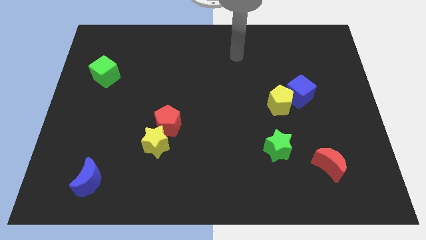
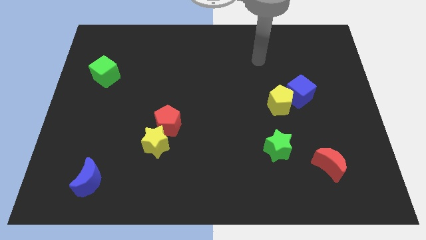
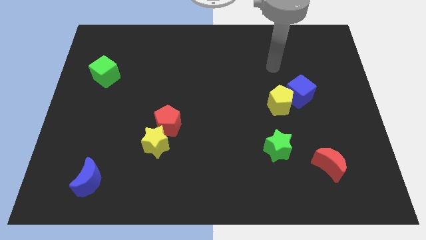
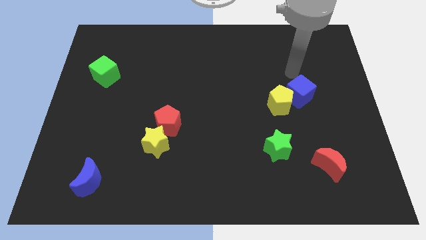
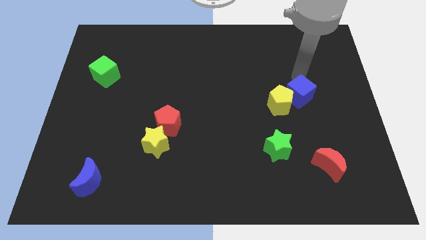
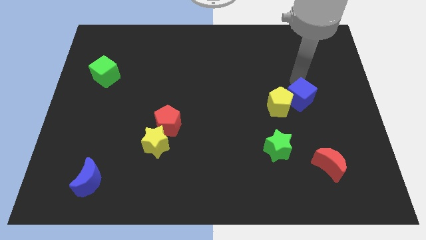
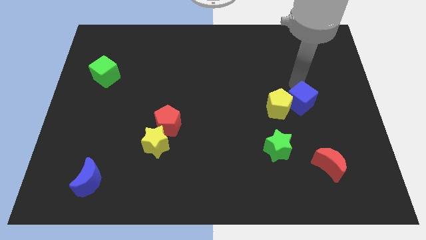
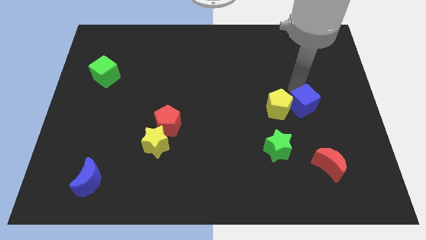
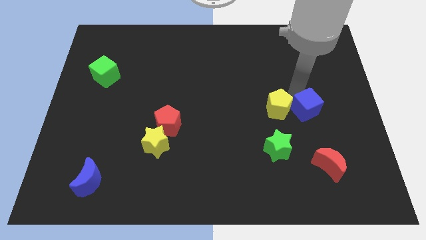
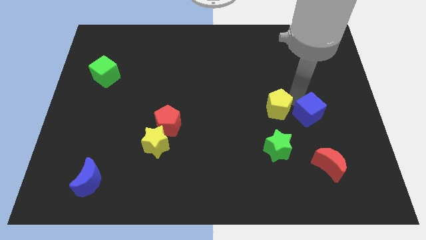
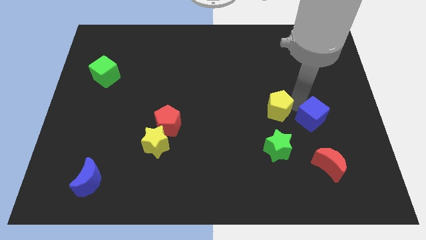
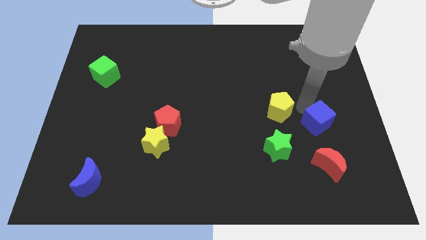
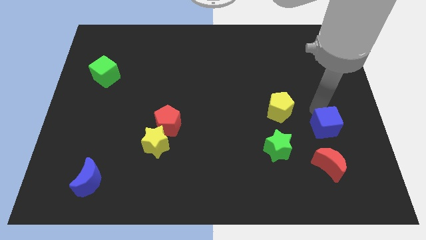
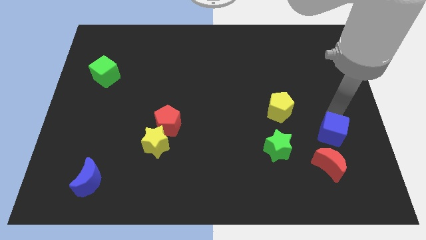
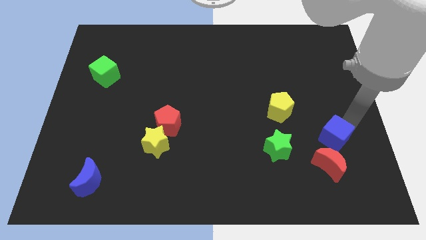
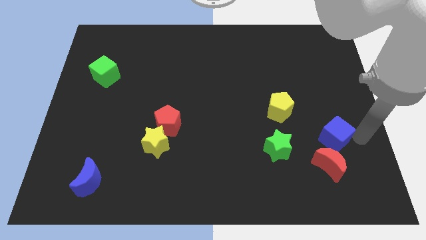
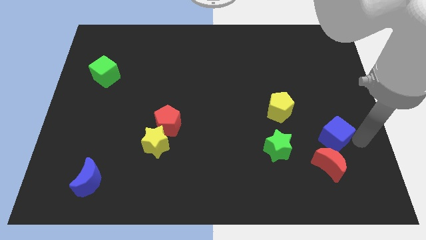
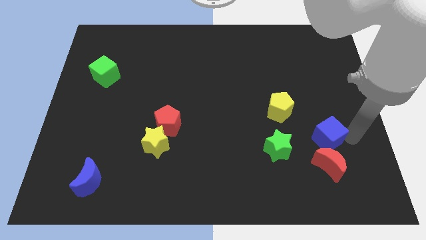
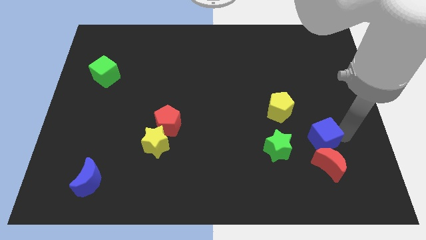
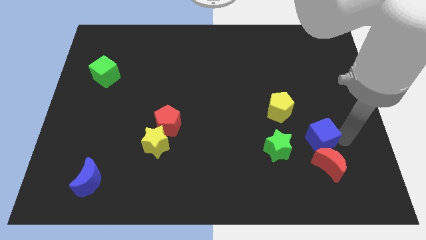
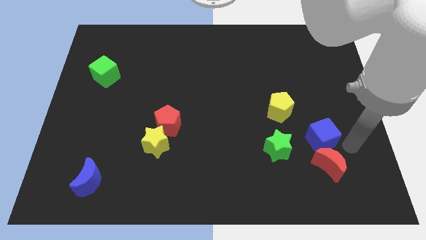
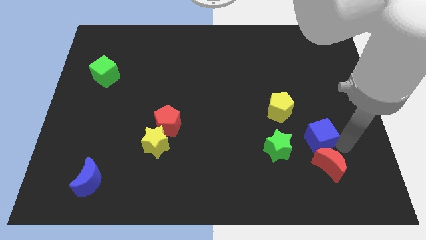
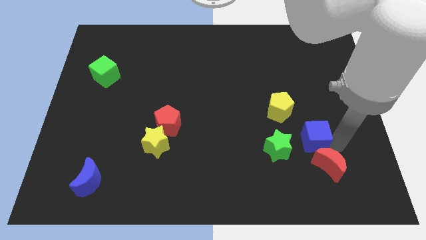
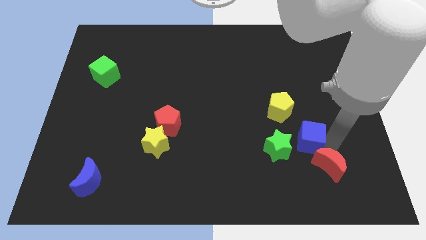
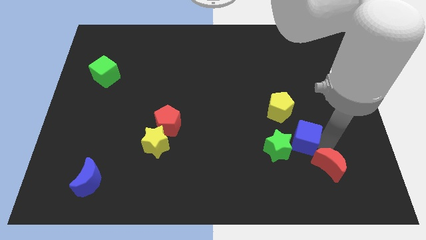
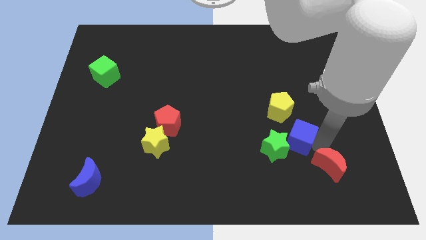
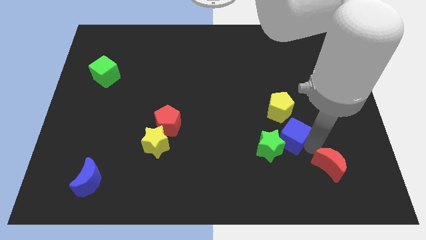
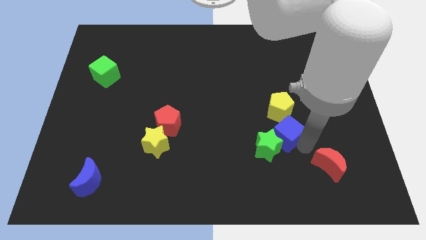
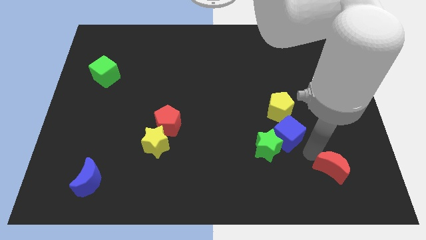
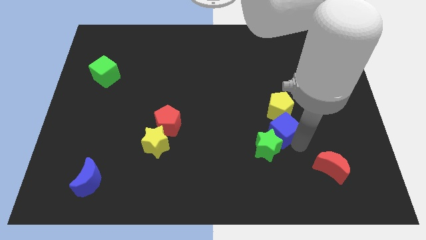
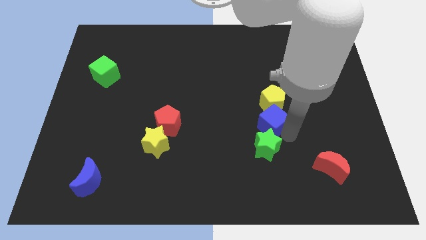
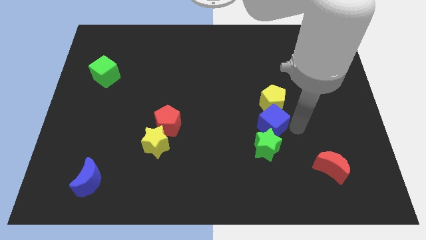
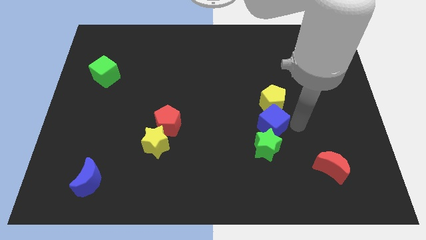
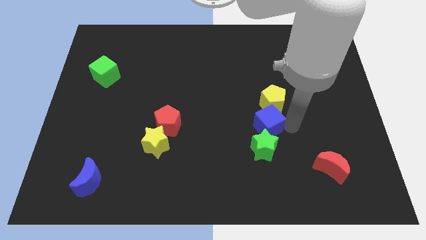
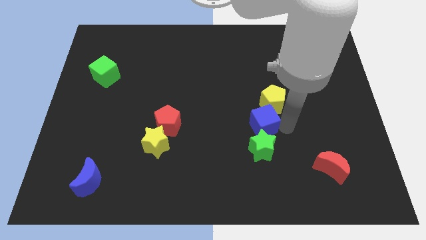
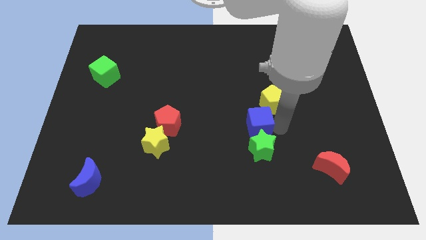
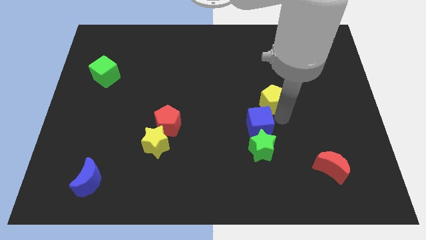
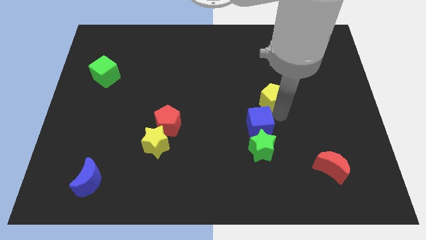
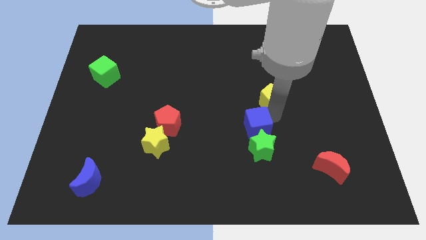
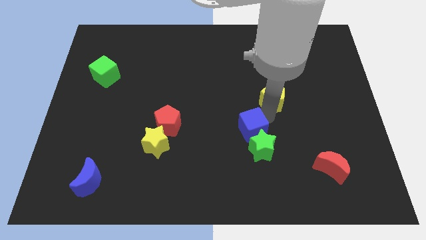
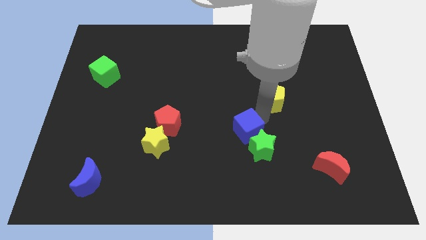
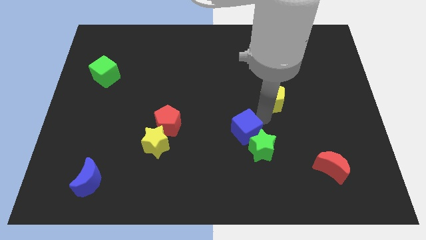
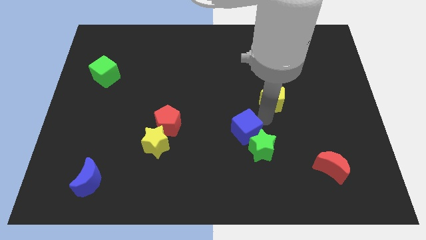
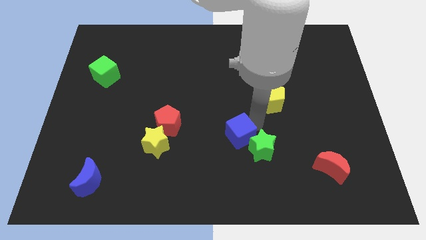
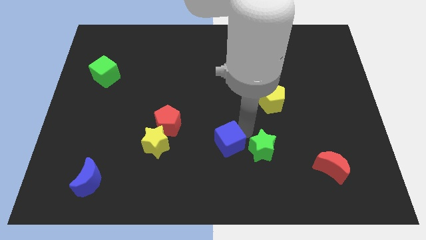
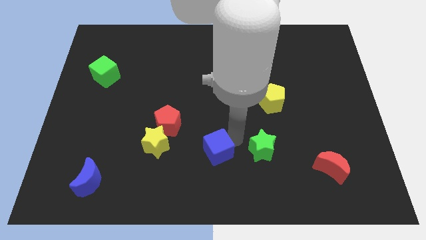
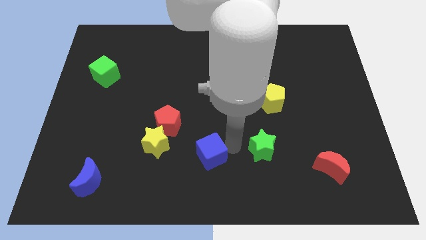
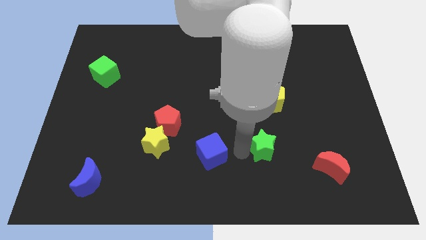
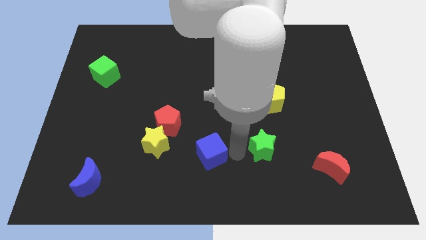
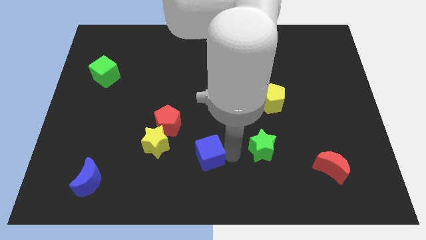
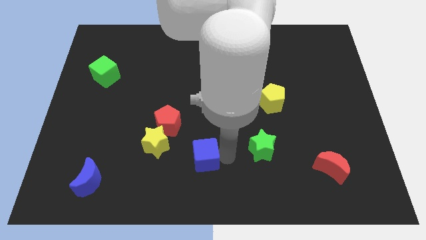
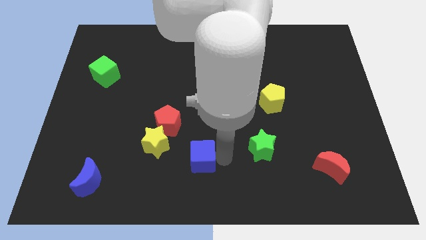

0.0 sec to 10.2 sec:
put the blue cube to the bottom right side of the yellow star

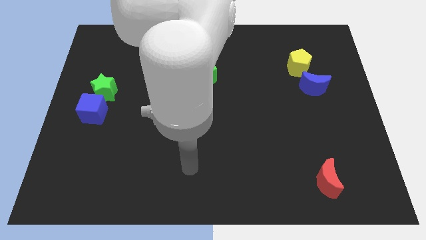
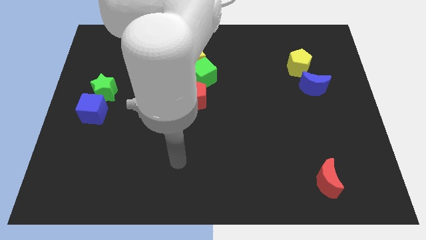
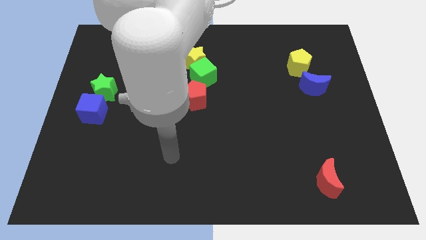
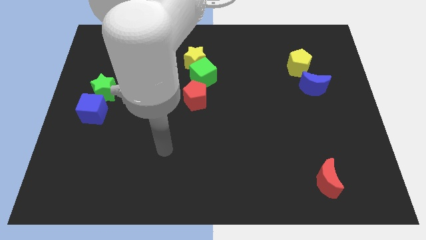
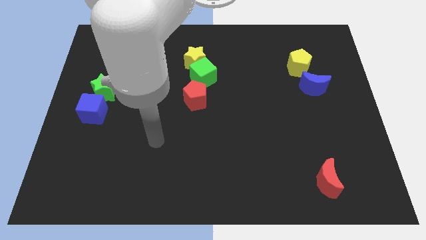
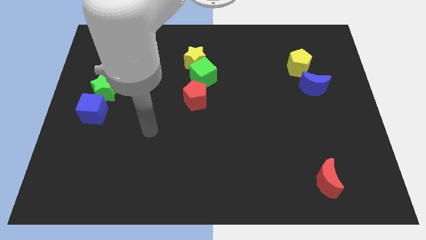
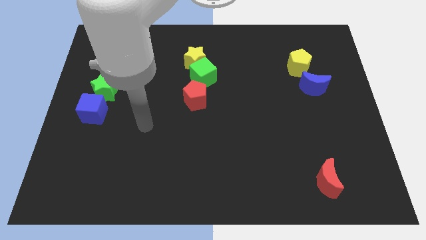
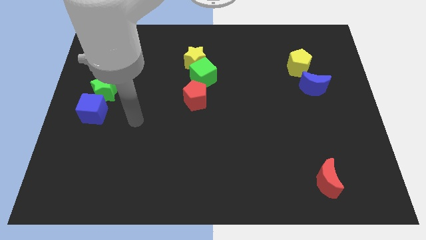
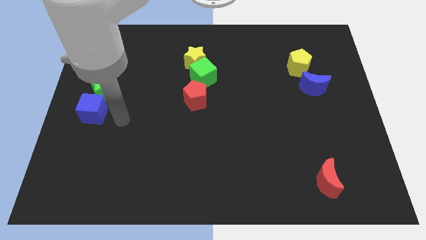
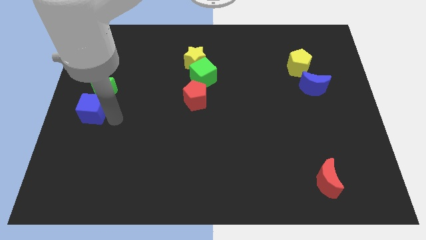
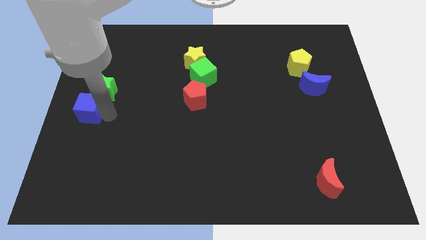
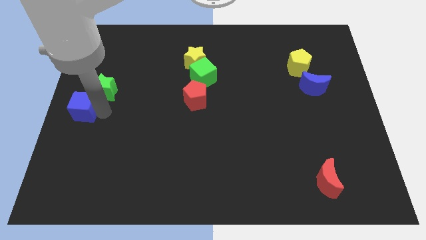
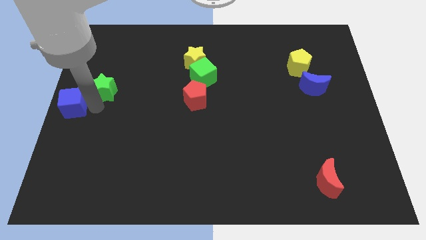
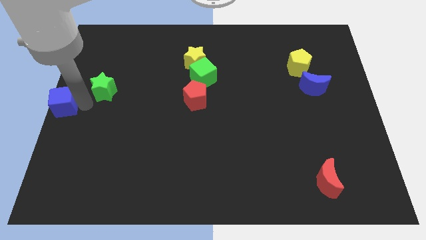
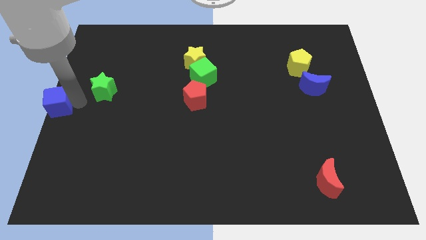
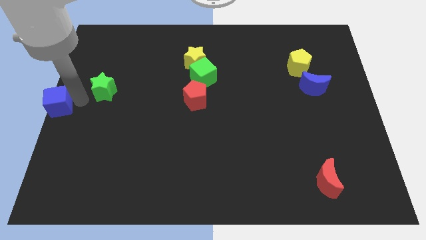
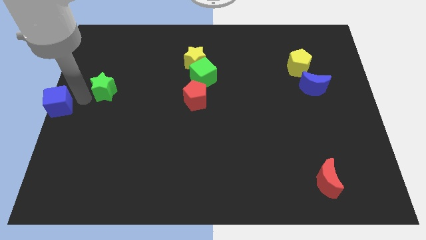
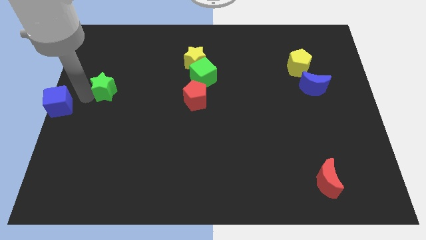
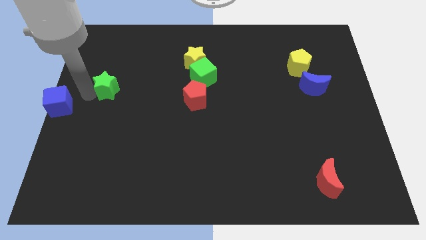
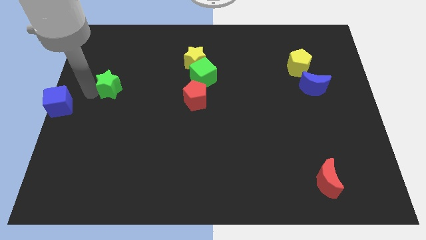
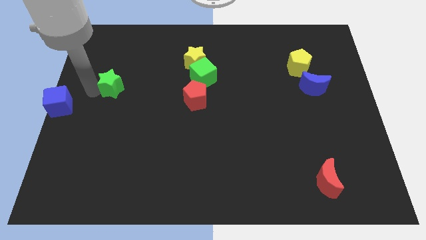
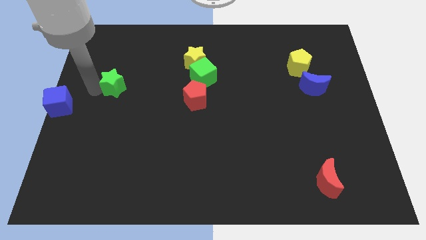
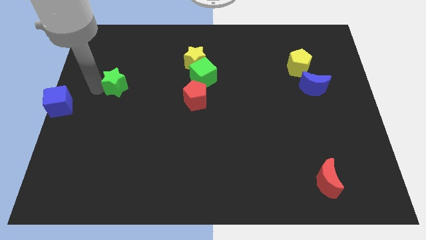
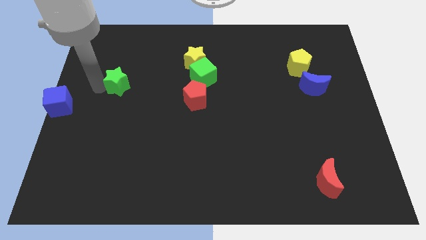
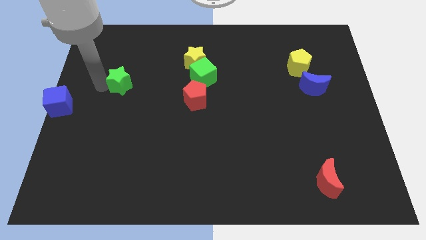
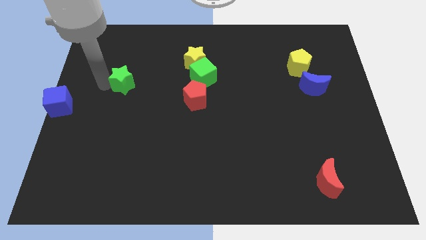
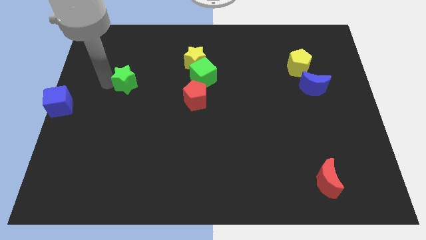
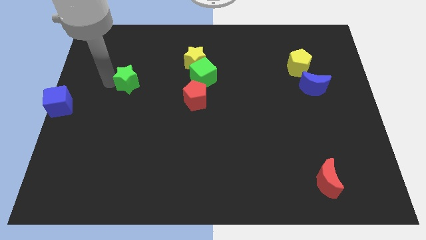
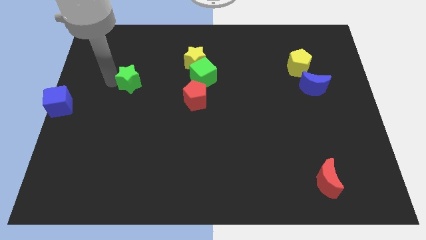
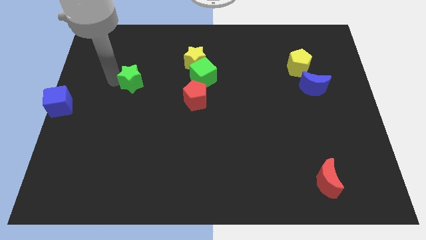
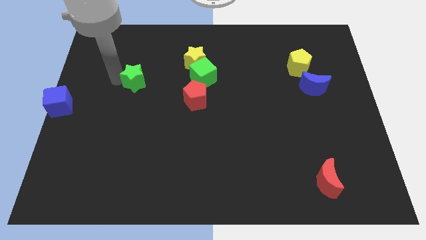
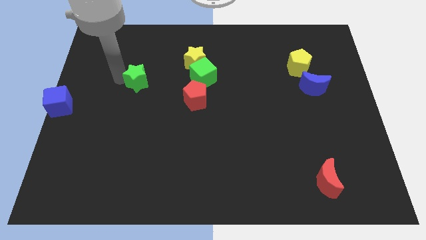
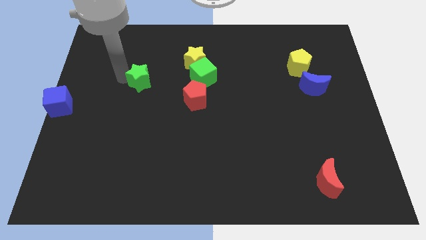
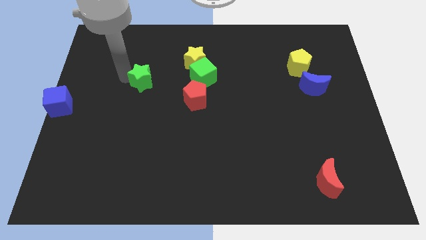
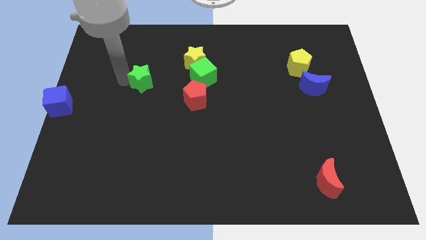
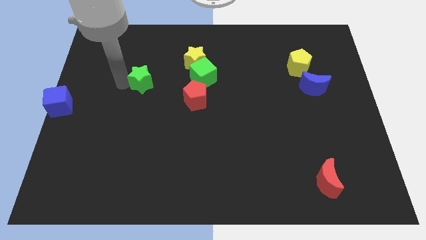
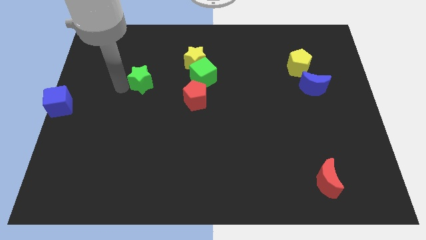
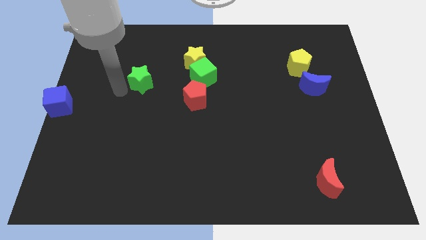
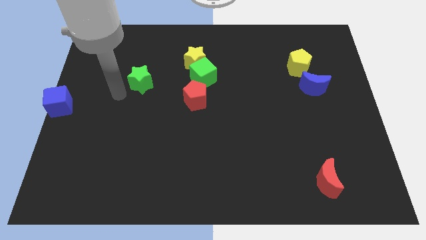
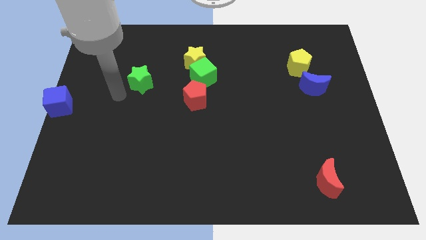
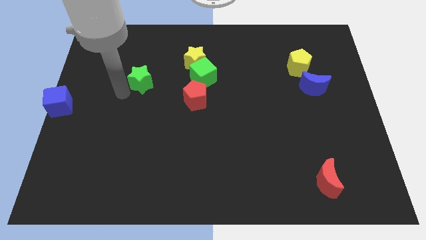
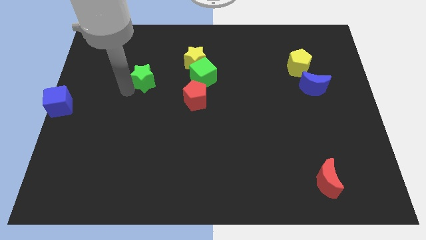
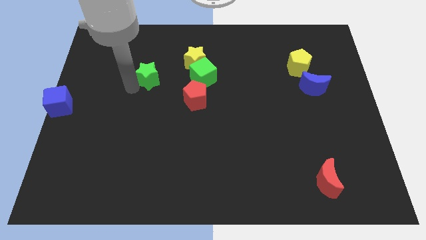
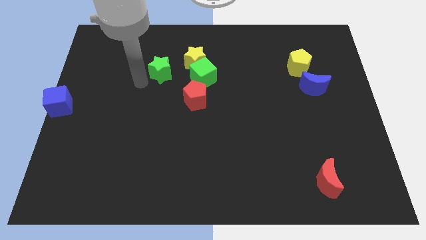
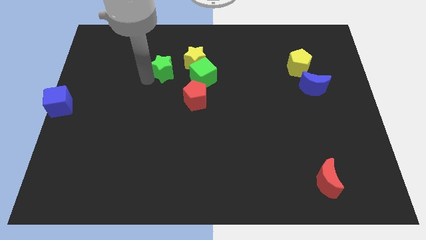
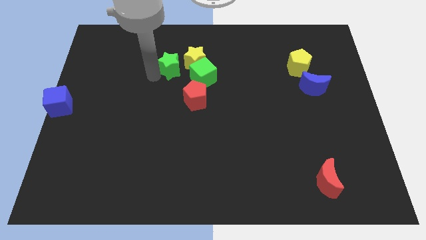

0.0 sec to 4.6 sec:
push the green star to the top left side of the green cube
